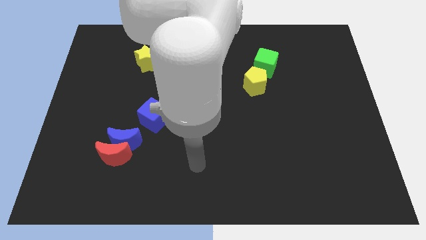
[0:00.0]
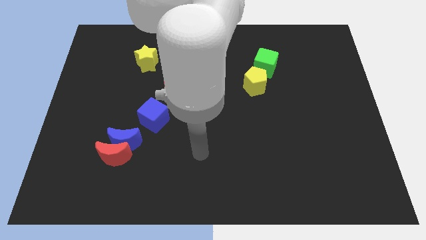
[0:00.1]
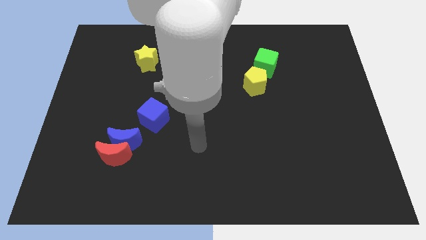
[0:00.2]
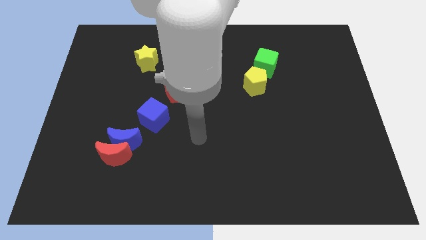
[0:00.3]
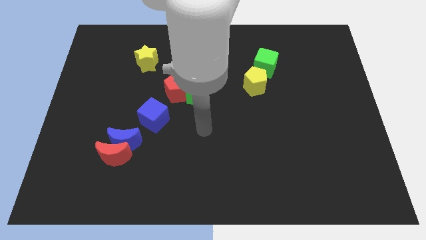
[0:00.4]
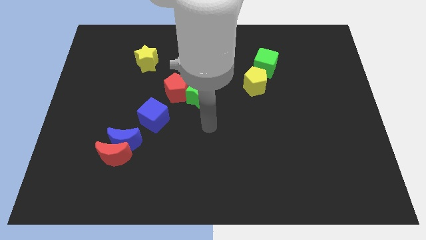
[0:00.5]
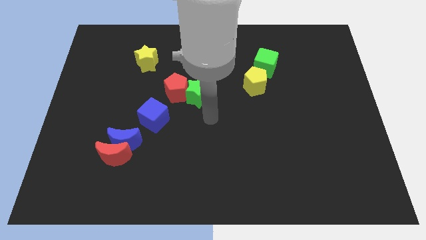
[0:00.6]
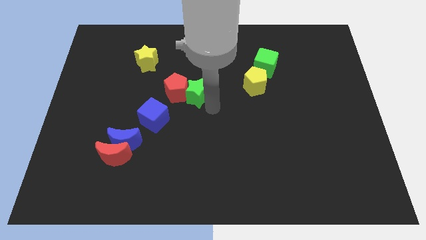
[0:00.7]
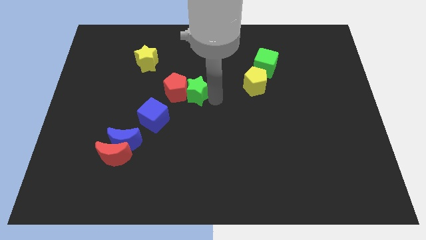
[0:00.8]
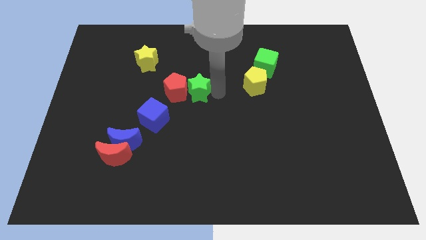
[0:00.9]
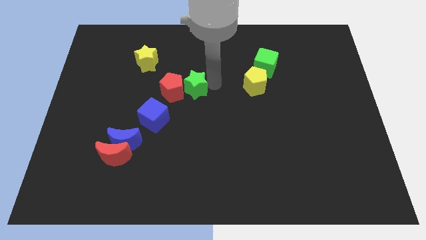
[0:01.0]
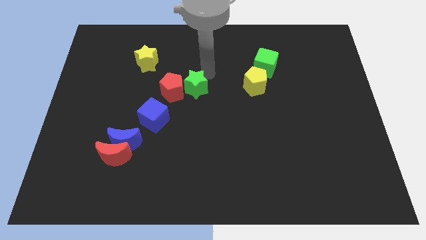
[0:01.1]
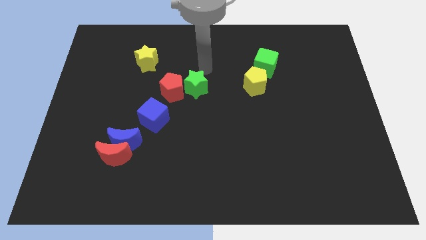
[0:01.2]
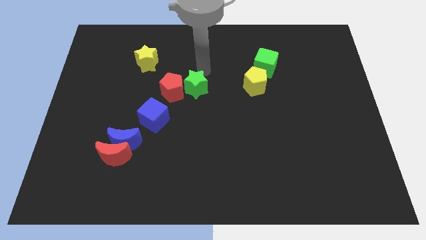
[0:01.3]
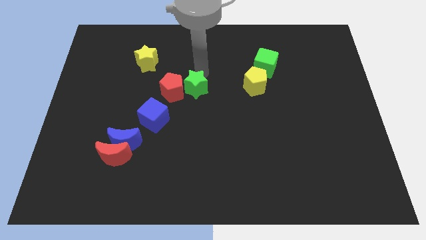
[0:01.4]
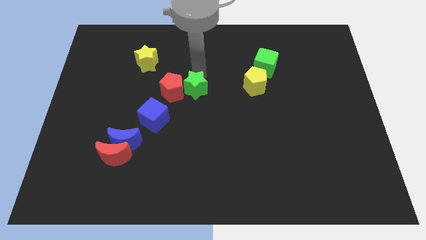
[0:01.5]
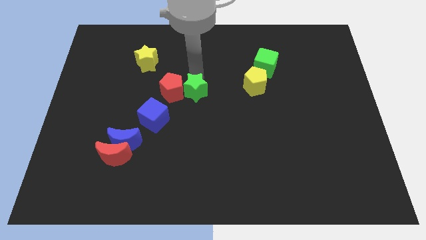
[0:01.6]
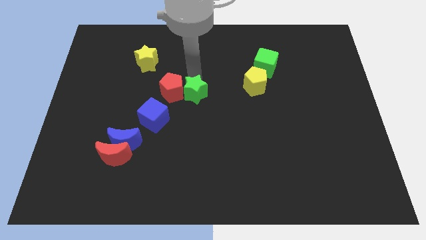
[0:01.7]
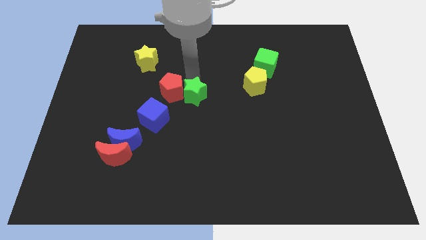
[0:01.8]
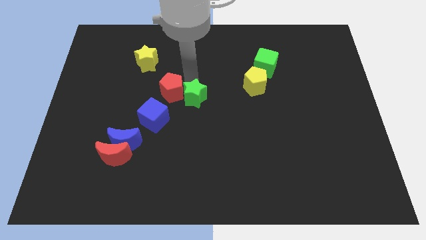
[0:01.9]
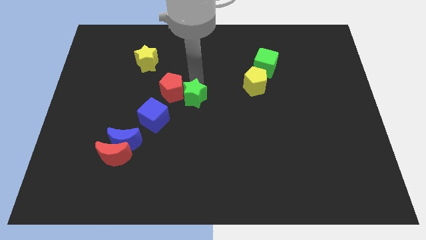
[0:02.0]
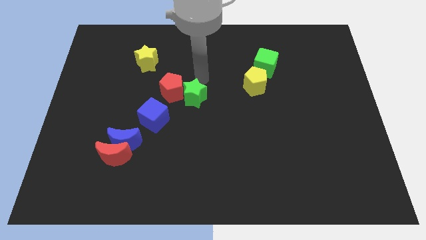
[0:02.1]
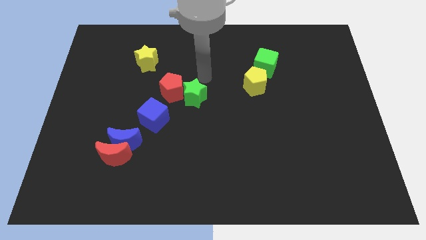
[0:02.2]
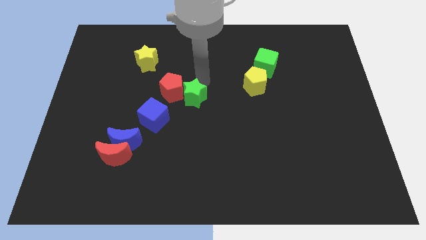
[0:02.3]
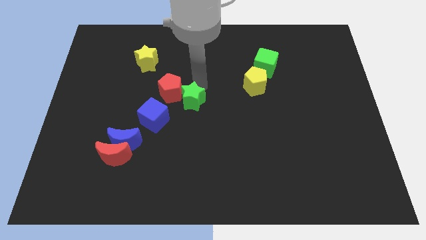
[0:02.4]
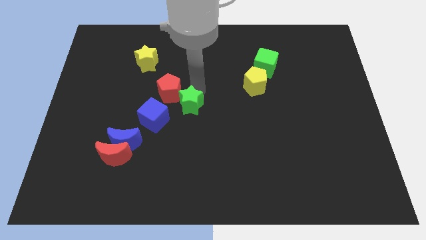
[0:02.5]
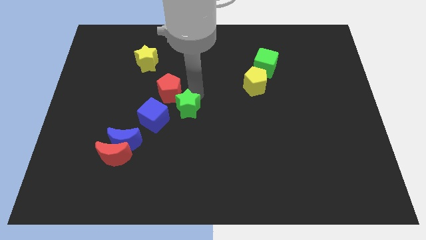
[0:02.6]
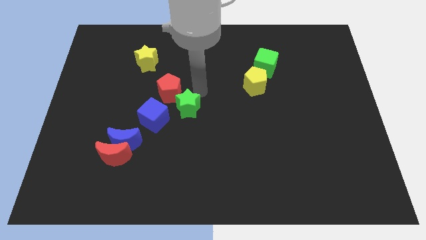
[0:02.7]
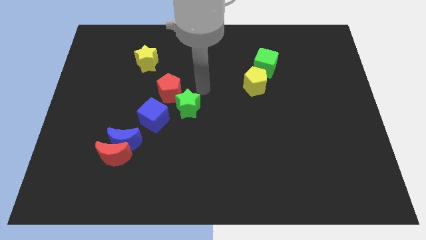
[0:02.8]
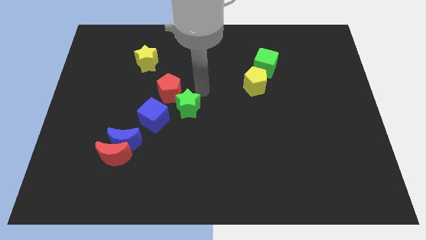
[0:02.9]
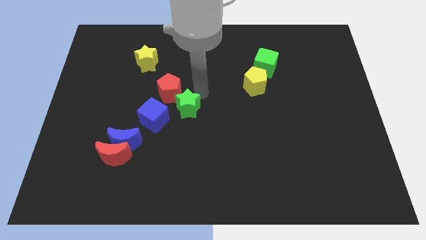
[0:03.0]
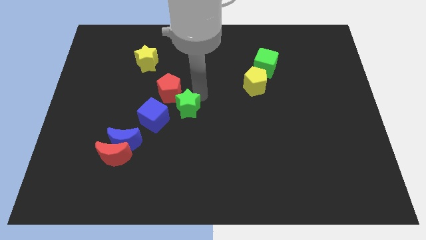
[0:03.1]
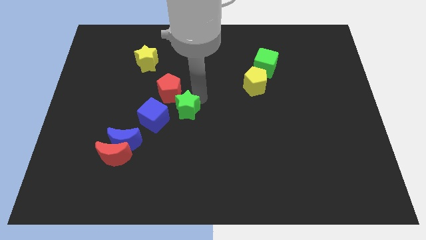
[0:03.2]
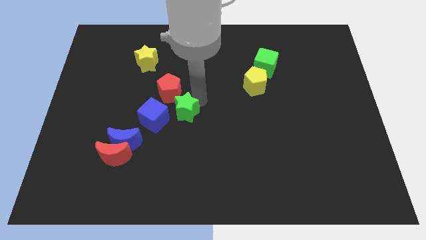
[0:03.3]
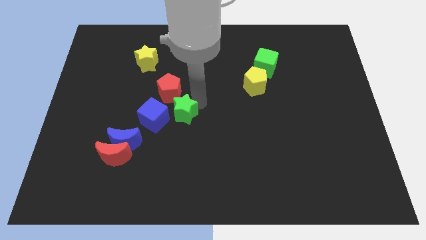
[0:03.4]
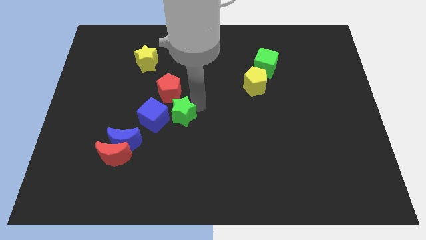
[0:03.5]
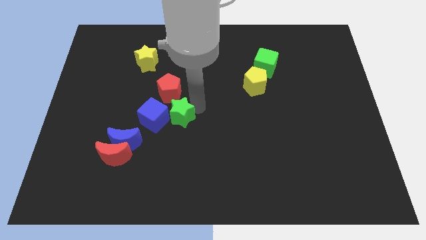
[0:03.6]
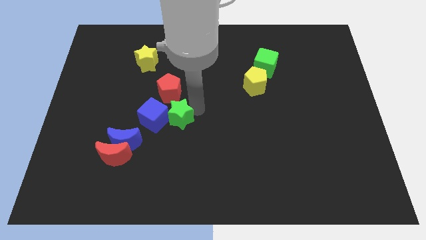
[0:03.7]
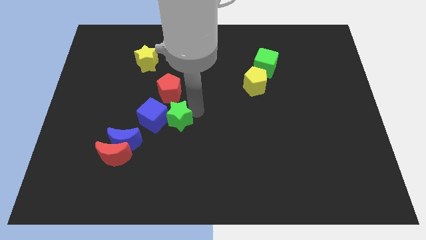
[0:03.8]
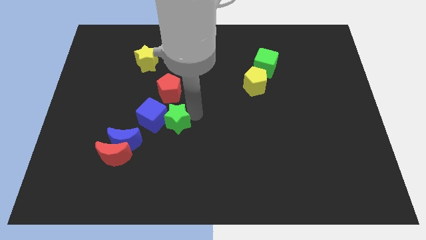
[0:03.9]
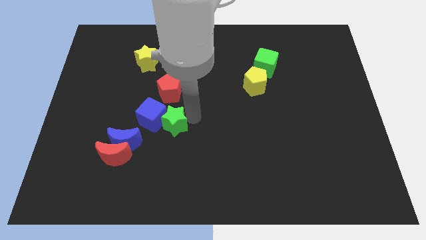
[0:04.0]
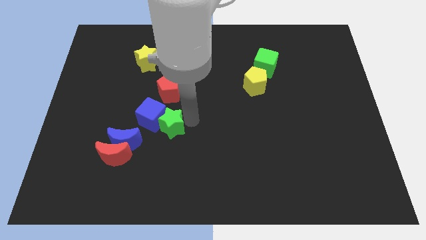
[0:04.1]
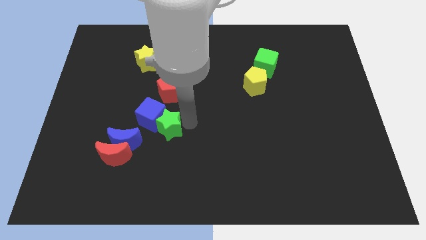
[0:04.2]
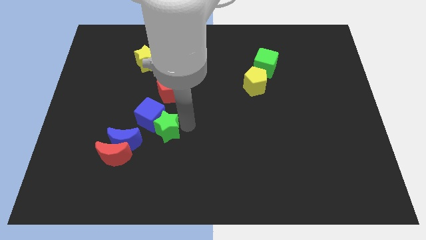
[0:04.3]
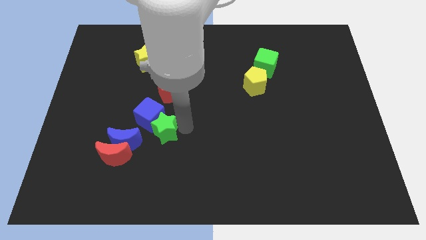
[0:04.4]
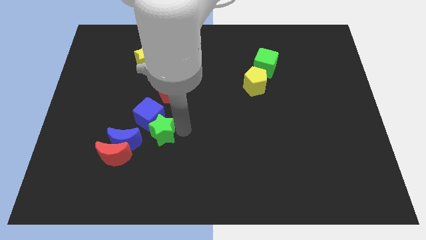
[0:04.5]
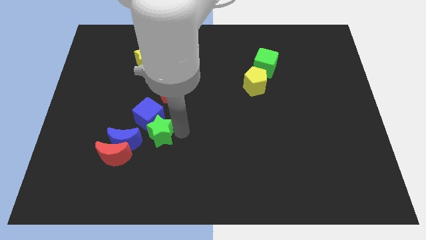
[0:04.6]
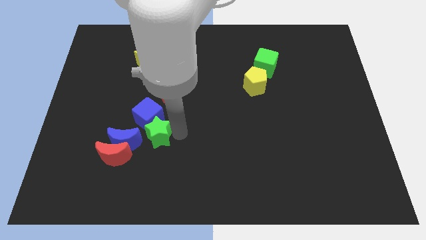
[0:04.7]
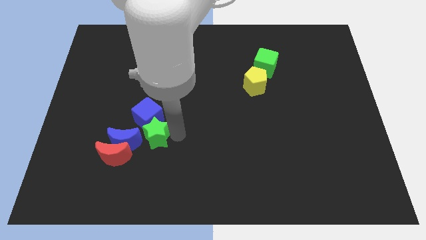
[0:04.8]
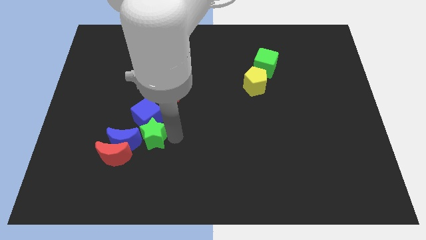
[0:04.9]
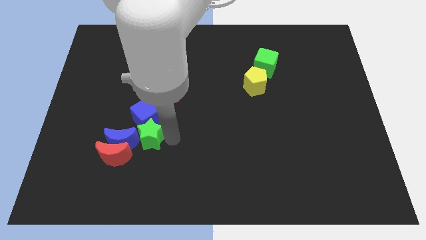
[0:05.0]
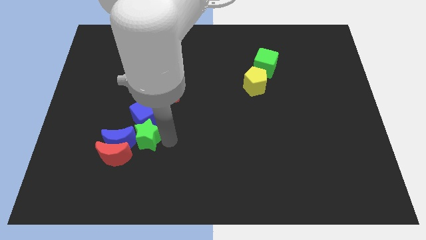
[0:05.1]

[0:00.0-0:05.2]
move the green star next to the blue moon

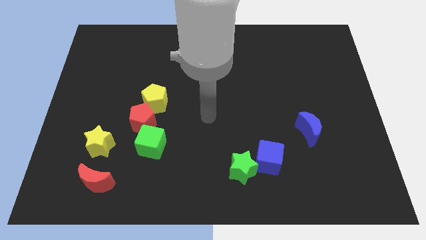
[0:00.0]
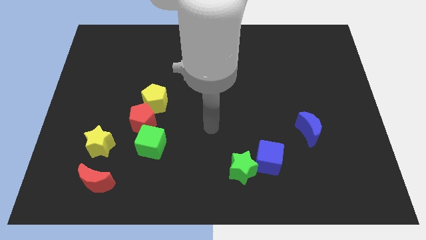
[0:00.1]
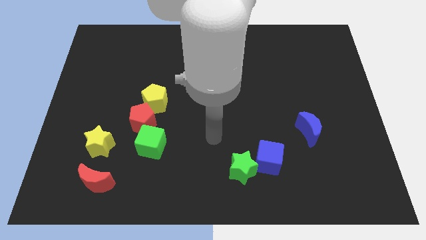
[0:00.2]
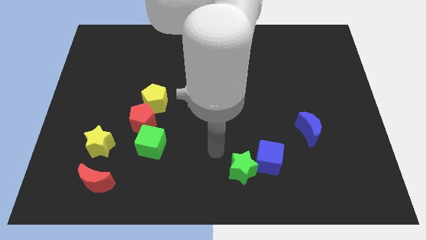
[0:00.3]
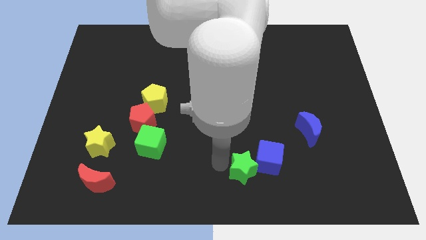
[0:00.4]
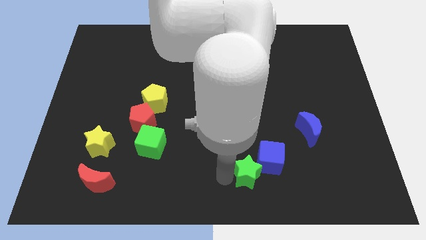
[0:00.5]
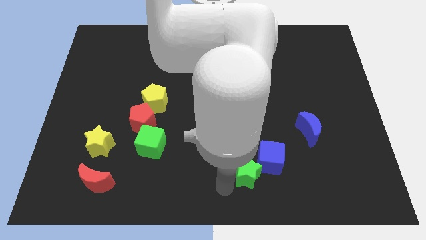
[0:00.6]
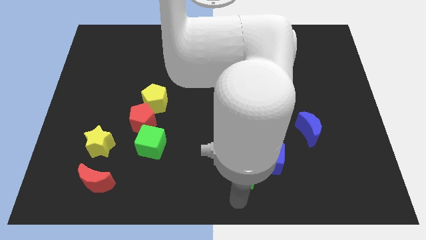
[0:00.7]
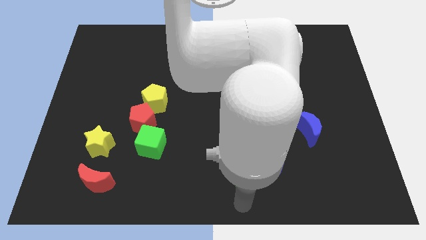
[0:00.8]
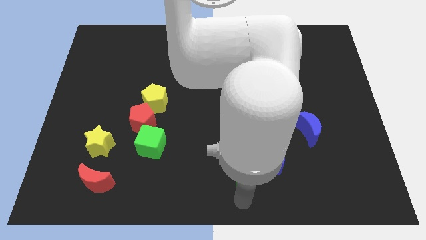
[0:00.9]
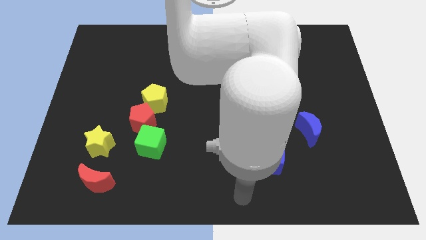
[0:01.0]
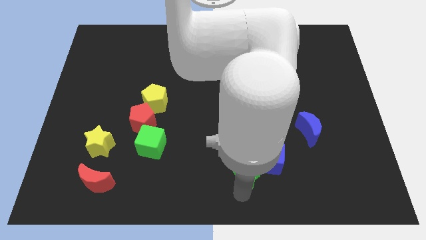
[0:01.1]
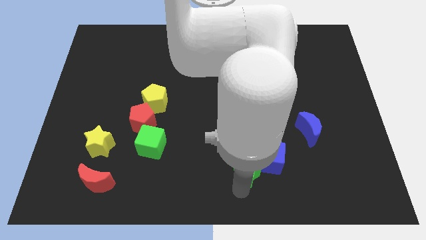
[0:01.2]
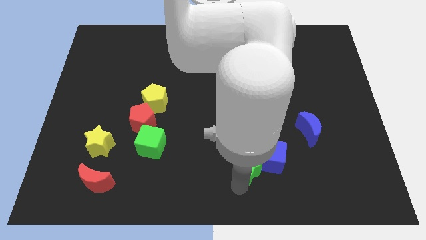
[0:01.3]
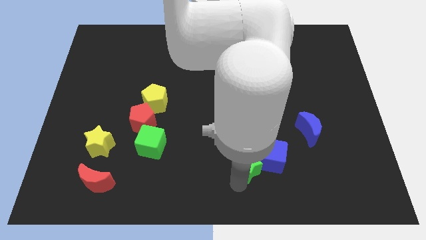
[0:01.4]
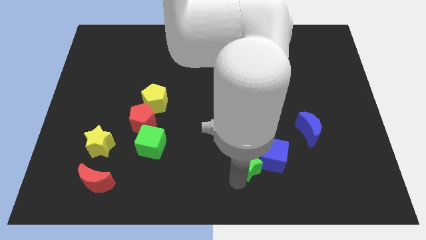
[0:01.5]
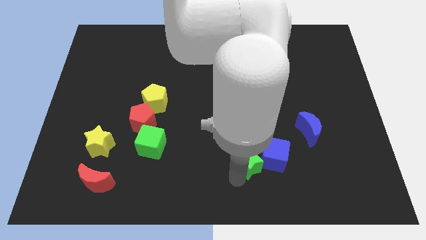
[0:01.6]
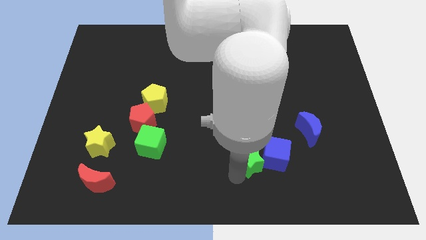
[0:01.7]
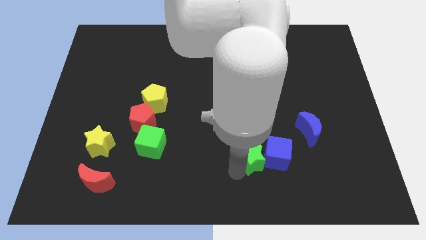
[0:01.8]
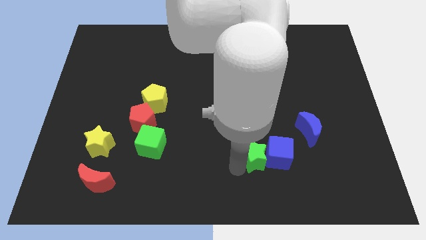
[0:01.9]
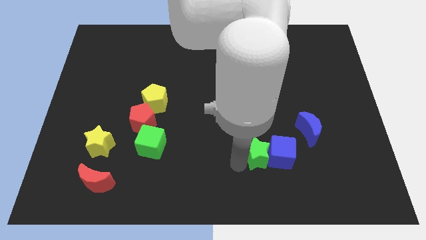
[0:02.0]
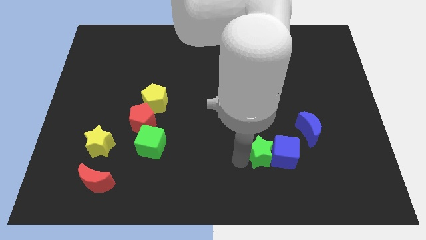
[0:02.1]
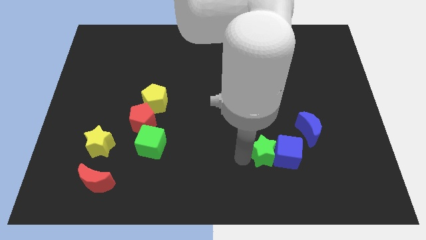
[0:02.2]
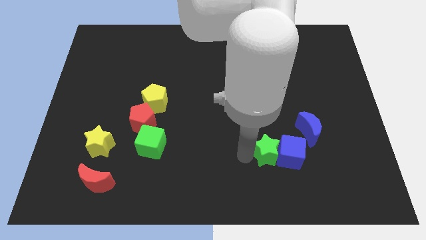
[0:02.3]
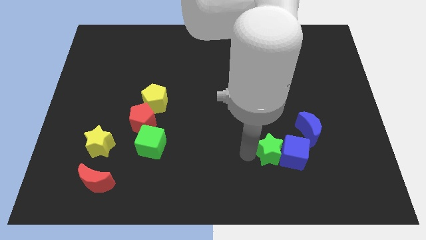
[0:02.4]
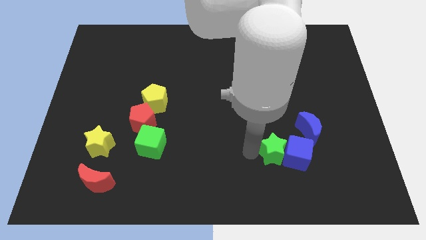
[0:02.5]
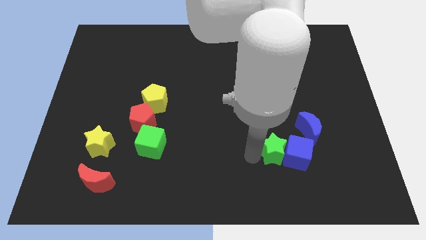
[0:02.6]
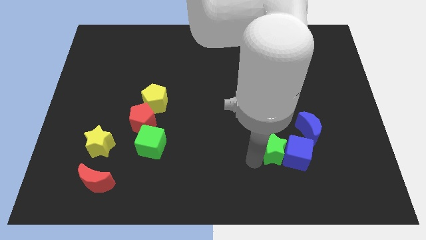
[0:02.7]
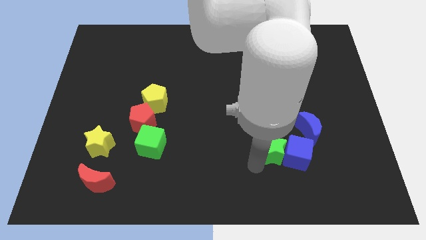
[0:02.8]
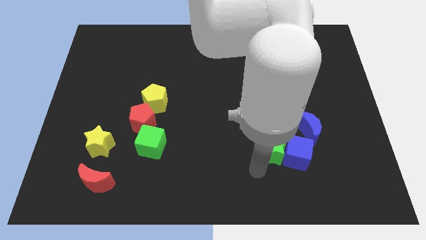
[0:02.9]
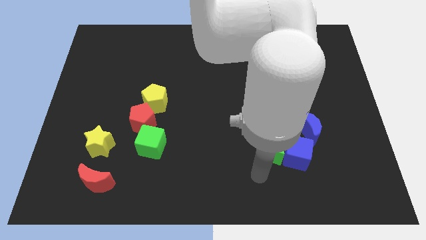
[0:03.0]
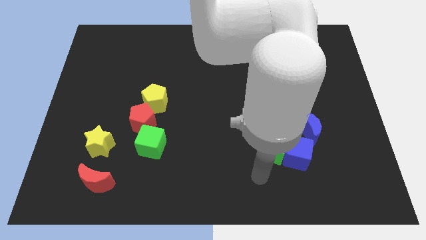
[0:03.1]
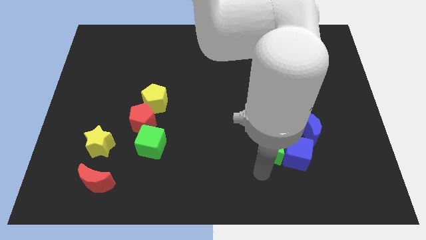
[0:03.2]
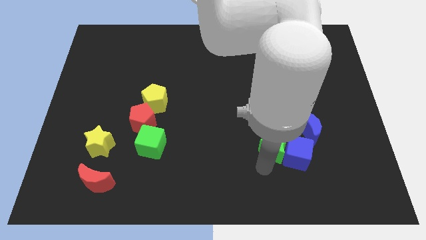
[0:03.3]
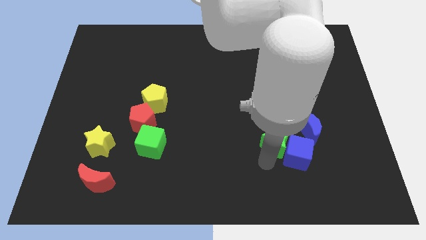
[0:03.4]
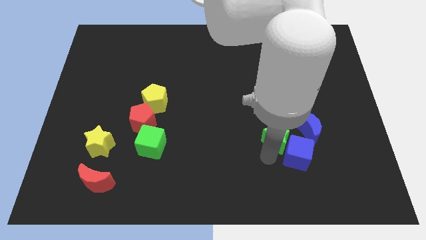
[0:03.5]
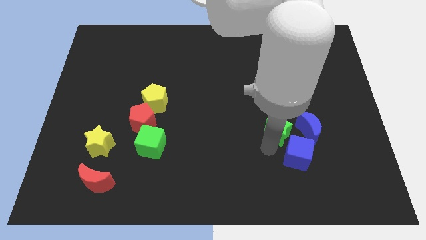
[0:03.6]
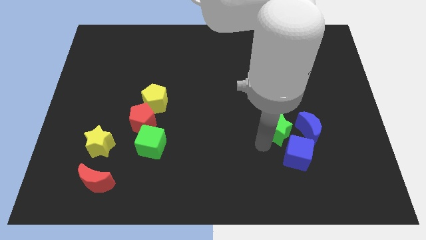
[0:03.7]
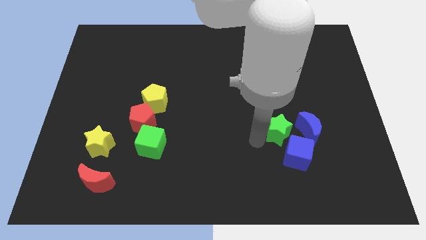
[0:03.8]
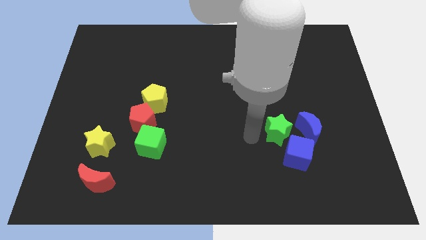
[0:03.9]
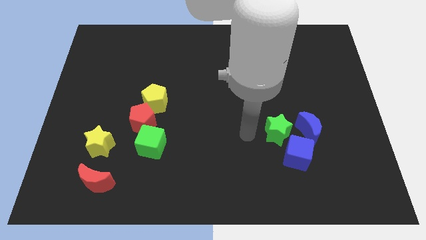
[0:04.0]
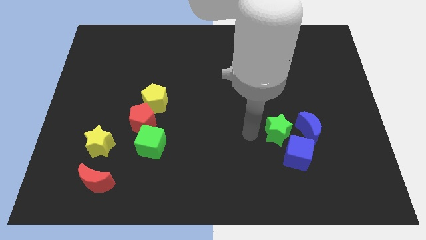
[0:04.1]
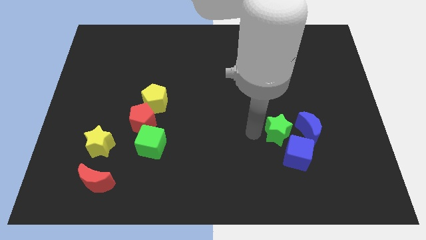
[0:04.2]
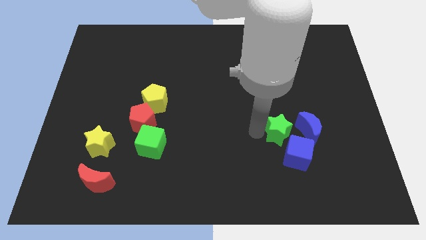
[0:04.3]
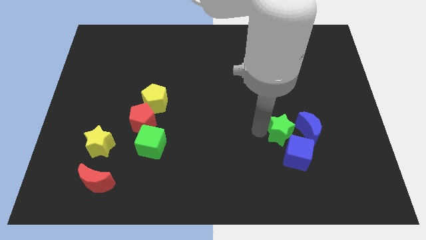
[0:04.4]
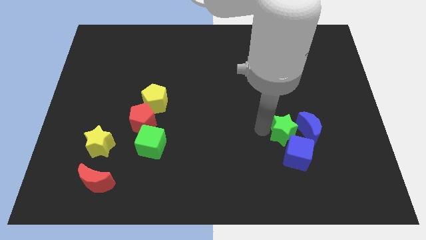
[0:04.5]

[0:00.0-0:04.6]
push the green star close to the blue moon
